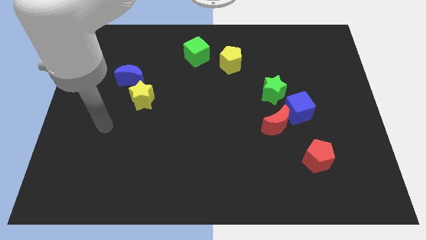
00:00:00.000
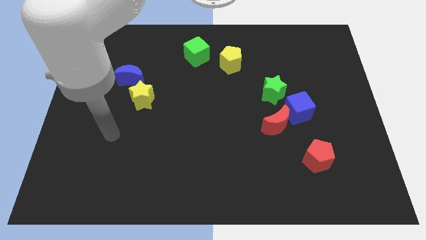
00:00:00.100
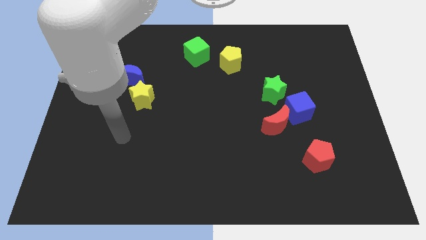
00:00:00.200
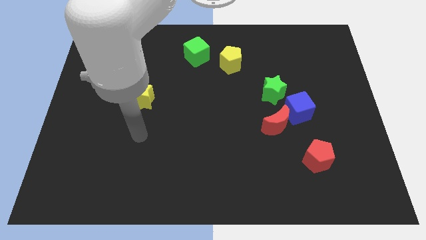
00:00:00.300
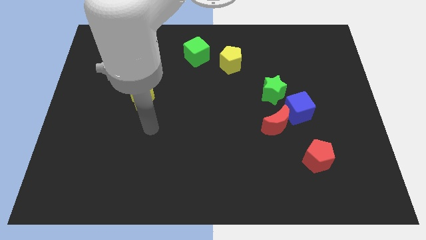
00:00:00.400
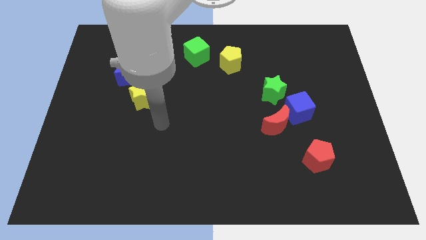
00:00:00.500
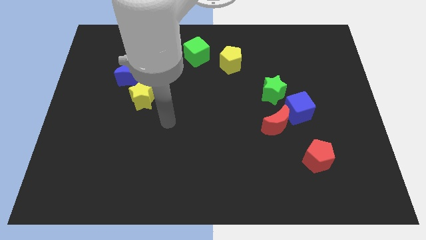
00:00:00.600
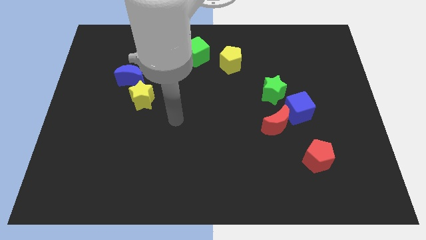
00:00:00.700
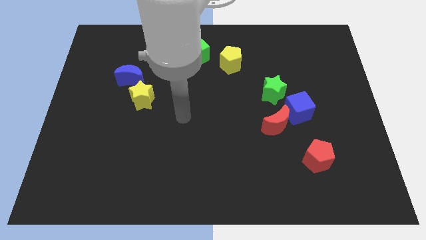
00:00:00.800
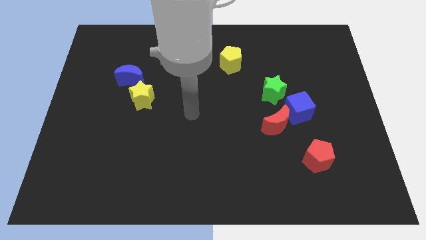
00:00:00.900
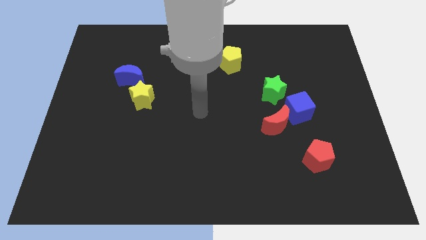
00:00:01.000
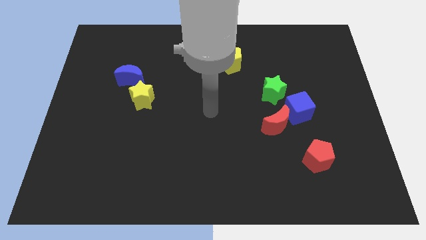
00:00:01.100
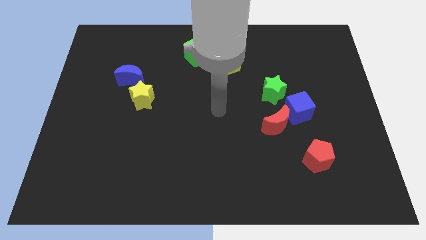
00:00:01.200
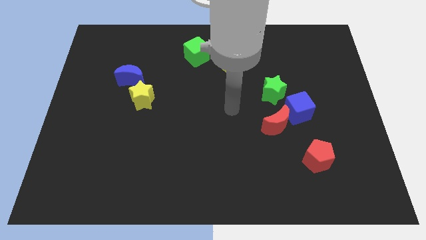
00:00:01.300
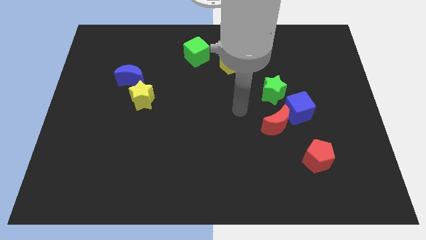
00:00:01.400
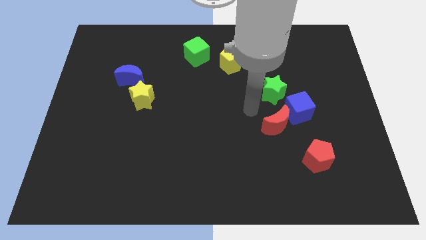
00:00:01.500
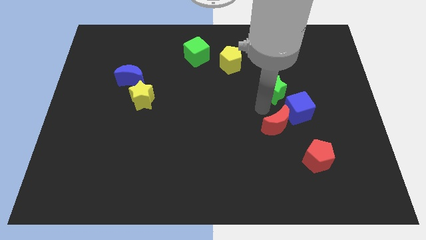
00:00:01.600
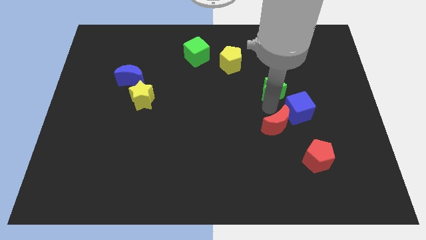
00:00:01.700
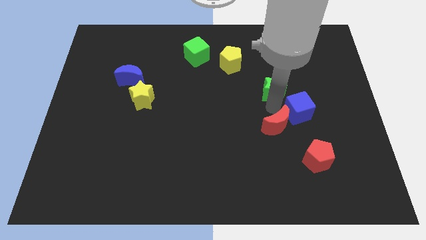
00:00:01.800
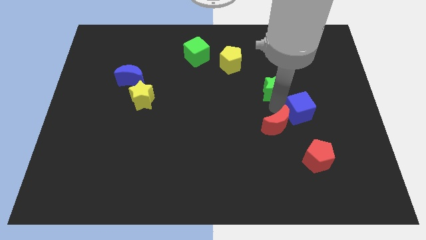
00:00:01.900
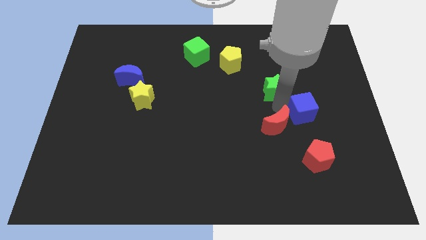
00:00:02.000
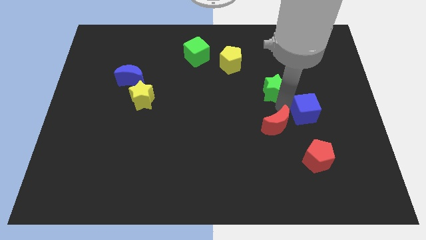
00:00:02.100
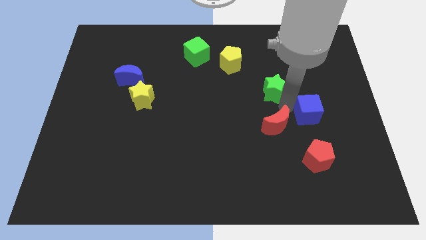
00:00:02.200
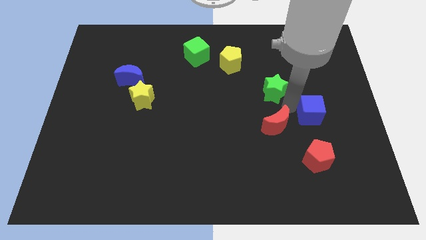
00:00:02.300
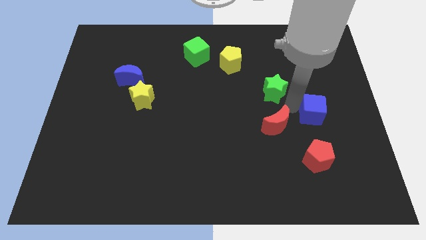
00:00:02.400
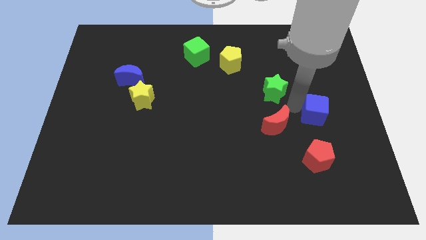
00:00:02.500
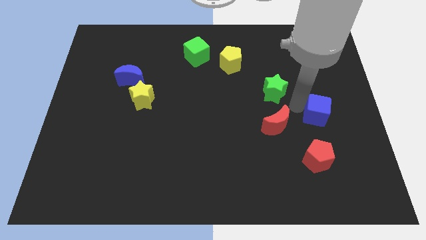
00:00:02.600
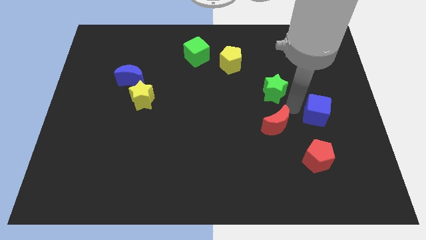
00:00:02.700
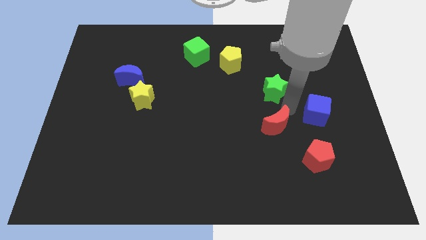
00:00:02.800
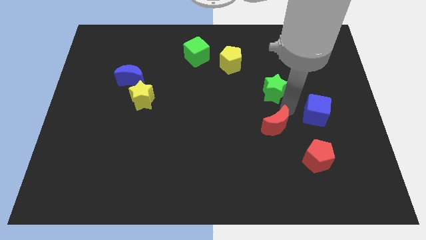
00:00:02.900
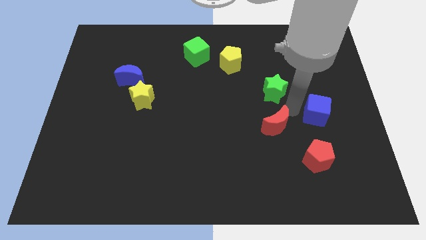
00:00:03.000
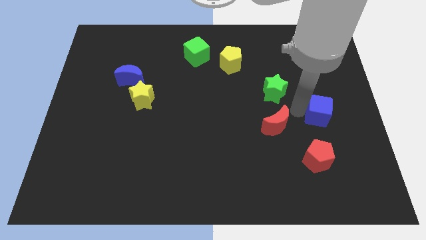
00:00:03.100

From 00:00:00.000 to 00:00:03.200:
pull the blue cube apart from the red moon and green star

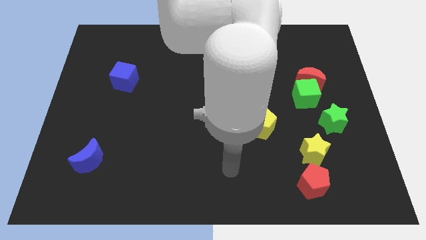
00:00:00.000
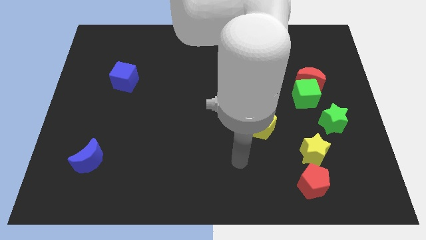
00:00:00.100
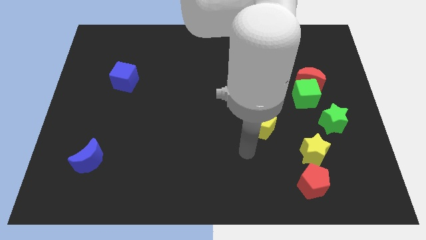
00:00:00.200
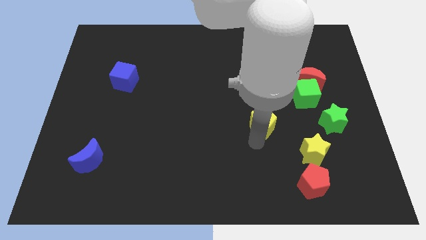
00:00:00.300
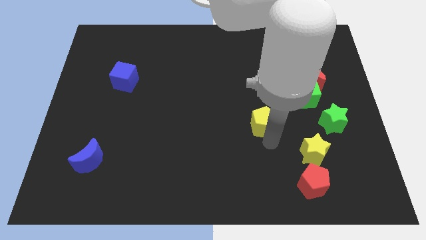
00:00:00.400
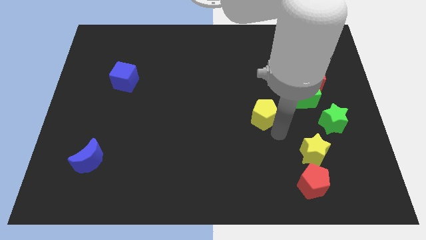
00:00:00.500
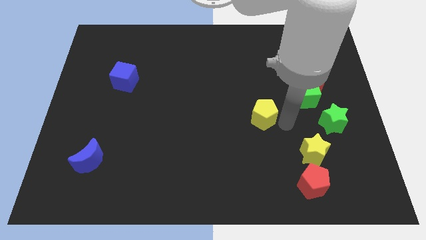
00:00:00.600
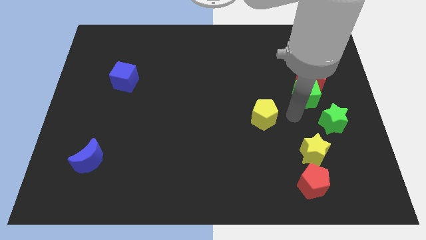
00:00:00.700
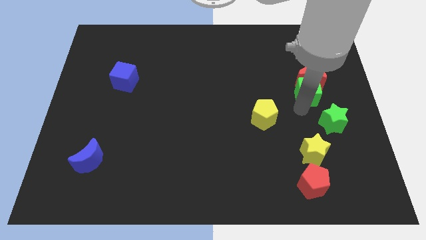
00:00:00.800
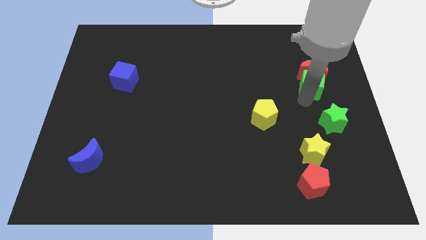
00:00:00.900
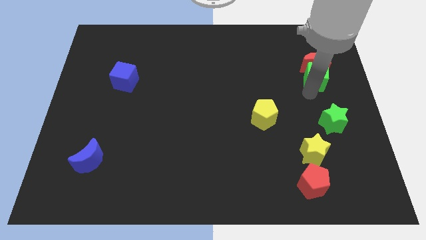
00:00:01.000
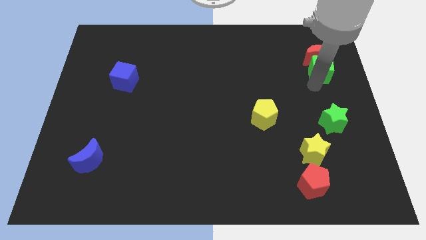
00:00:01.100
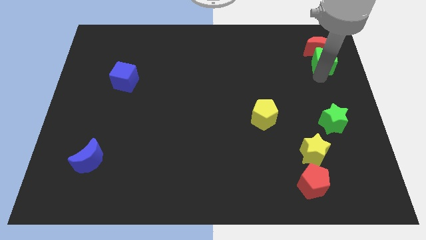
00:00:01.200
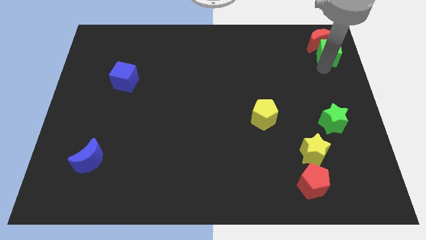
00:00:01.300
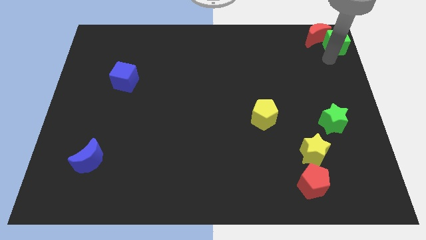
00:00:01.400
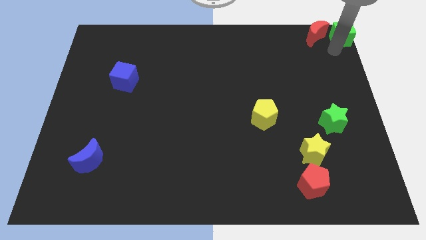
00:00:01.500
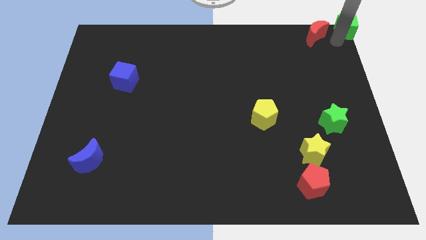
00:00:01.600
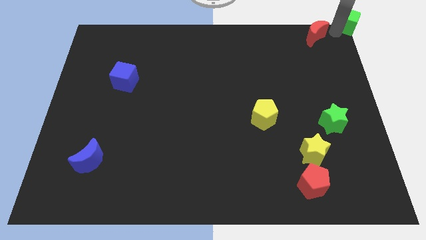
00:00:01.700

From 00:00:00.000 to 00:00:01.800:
pull the red moon apart from the green cube

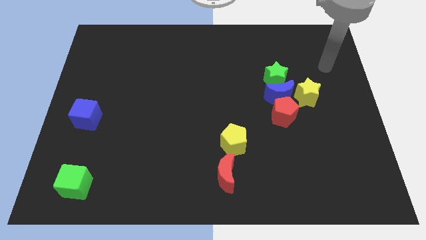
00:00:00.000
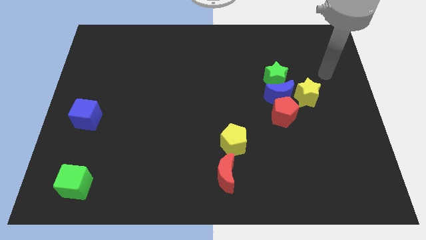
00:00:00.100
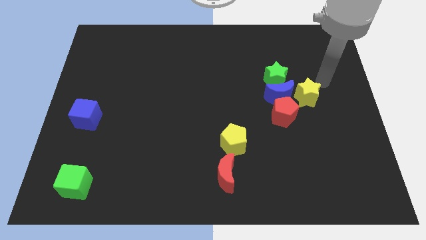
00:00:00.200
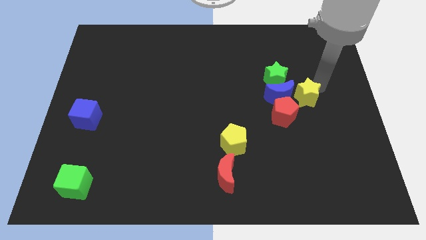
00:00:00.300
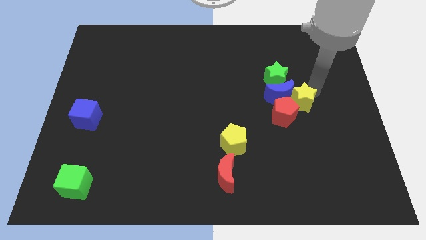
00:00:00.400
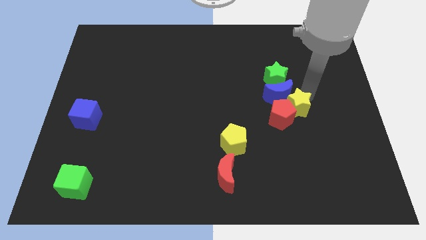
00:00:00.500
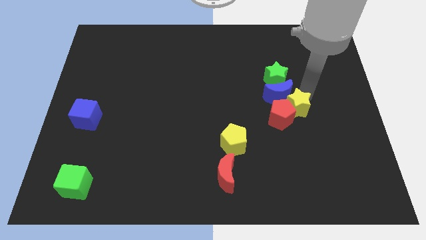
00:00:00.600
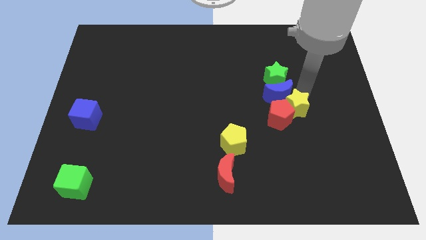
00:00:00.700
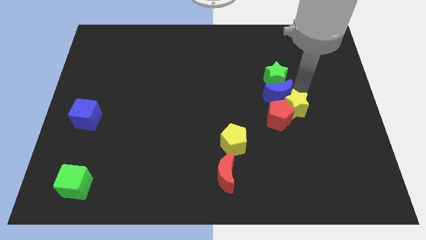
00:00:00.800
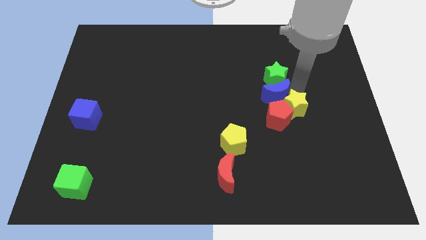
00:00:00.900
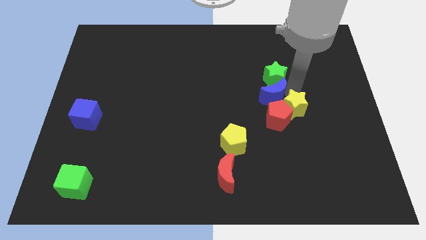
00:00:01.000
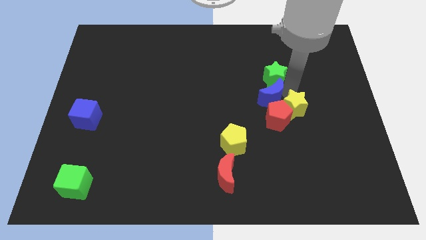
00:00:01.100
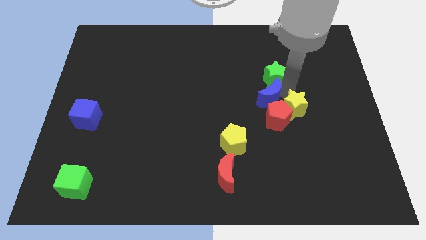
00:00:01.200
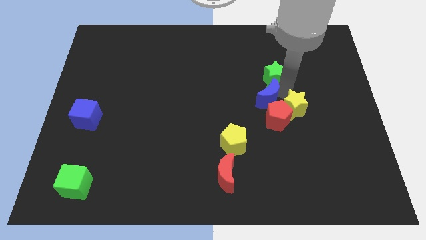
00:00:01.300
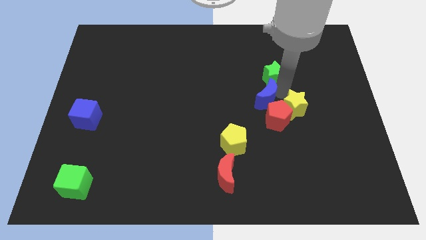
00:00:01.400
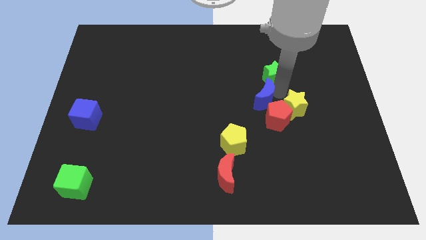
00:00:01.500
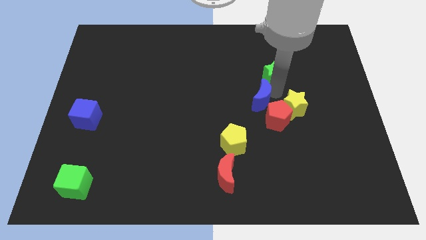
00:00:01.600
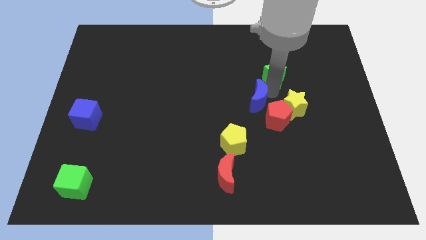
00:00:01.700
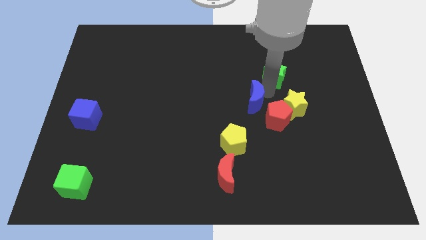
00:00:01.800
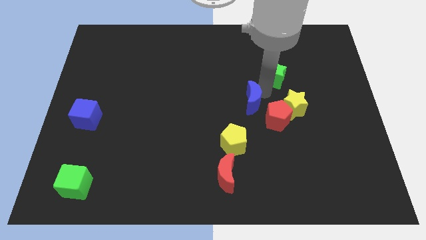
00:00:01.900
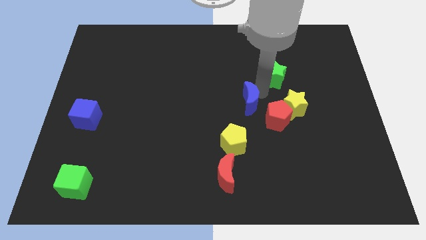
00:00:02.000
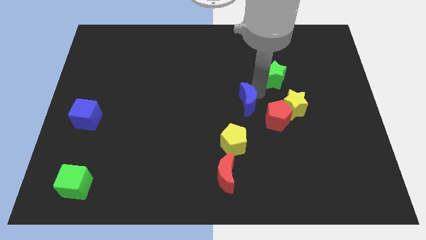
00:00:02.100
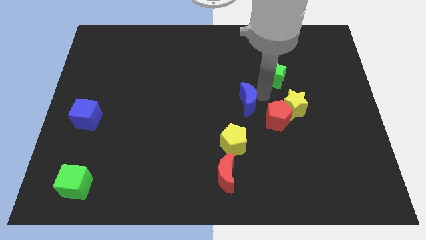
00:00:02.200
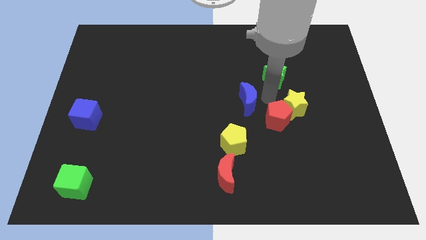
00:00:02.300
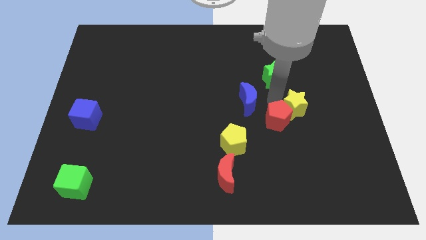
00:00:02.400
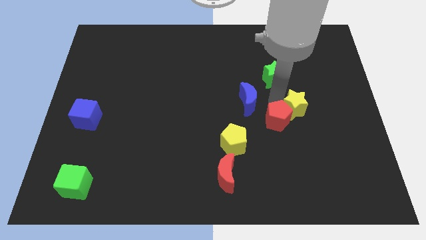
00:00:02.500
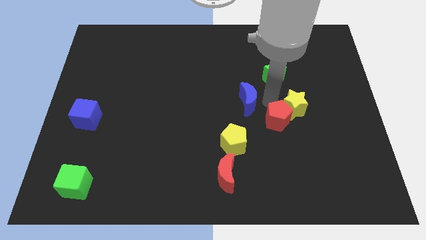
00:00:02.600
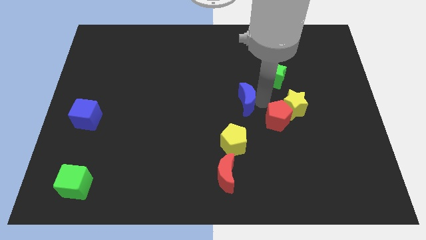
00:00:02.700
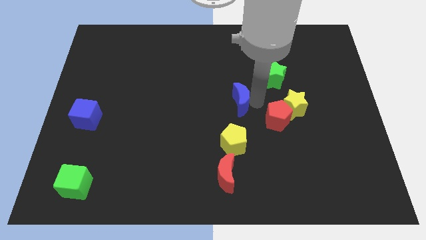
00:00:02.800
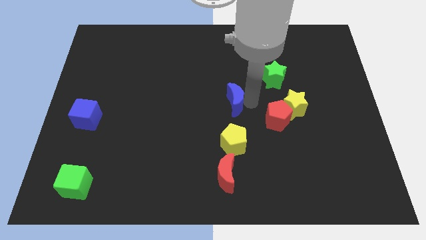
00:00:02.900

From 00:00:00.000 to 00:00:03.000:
move the blue moon away from the red pentagon, green star, and yellow star

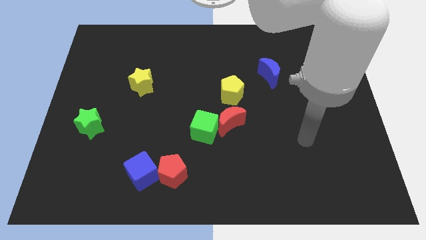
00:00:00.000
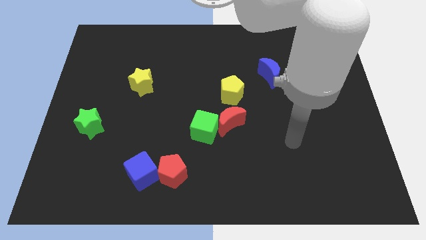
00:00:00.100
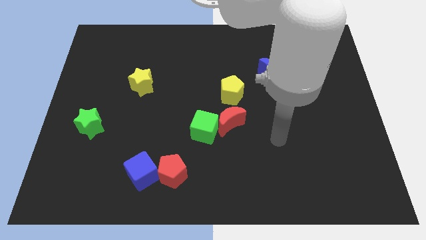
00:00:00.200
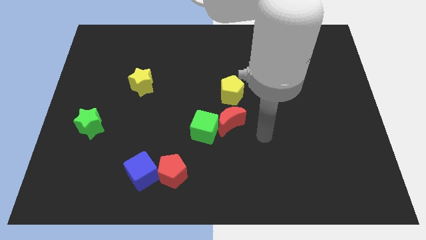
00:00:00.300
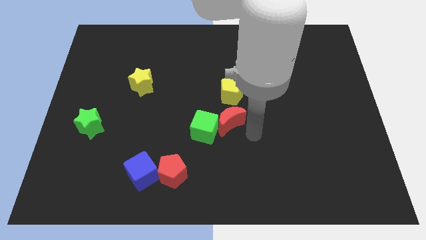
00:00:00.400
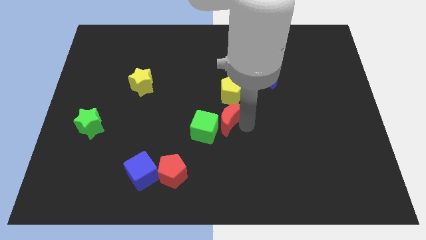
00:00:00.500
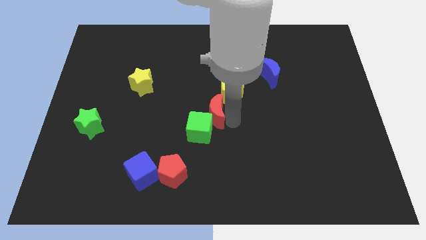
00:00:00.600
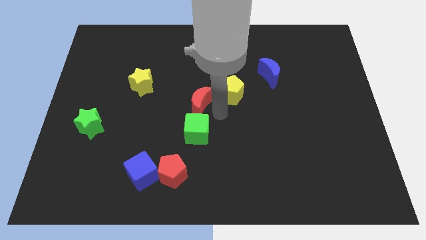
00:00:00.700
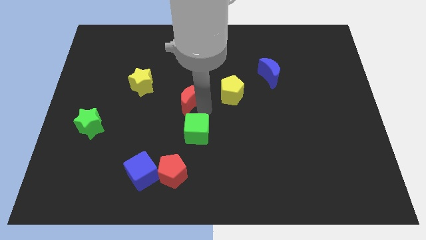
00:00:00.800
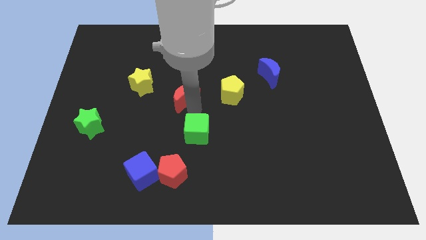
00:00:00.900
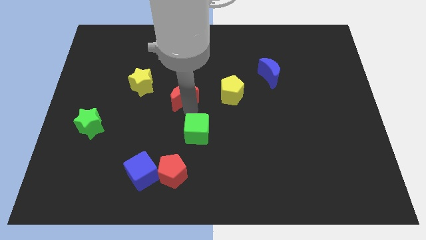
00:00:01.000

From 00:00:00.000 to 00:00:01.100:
move the green cube away from the red moon

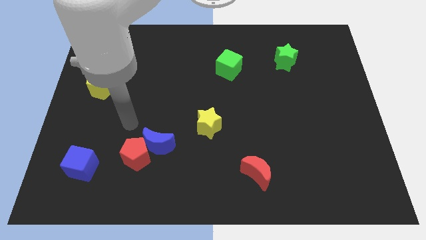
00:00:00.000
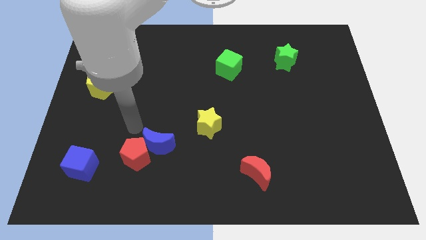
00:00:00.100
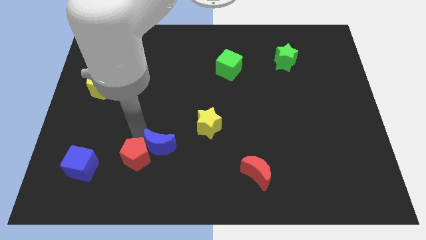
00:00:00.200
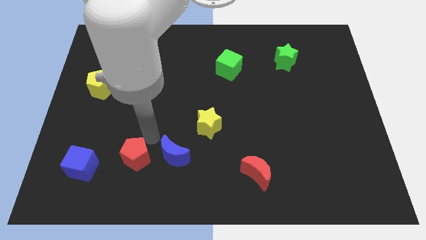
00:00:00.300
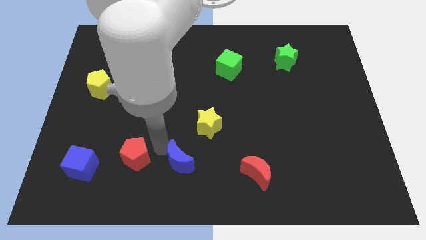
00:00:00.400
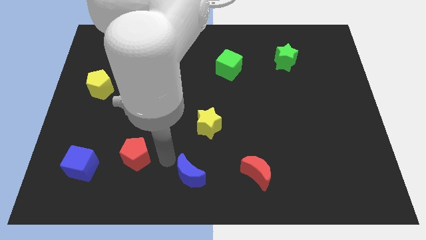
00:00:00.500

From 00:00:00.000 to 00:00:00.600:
pull the red pentagon apart from the blue moon
